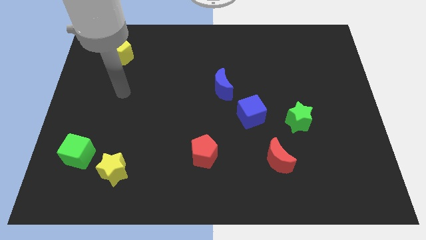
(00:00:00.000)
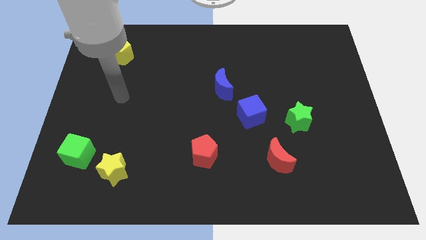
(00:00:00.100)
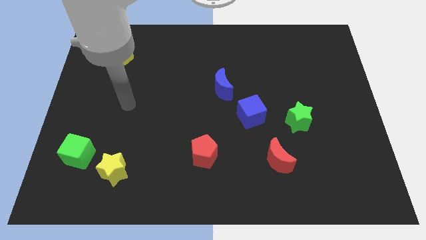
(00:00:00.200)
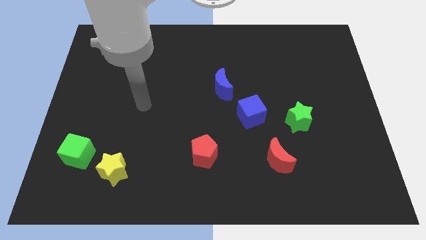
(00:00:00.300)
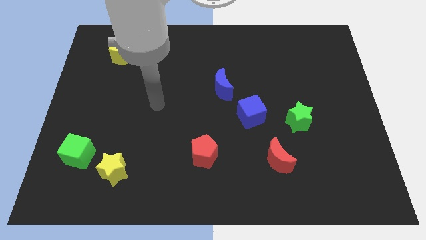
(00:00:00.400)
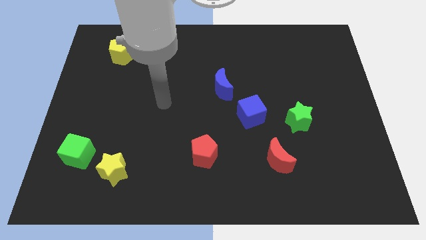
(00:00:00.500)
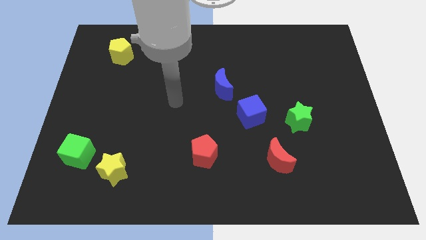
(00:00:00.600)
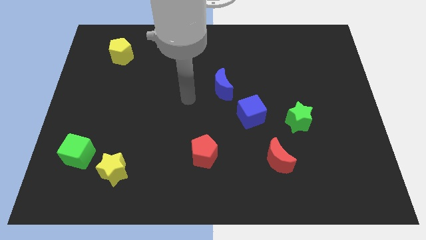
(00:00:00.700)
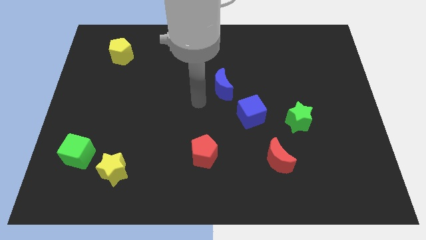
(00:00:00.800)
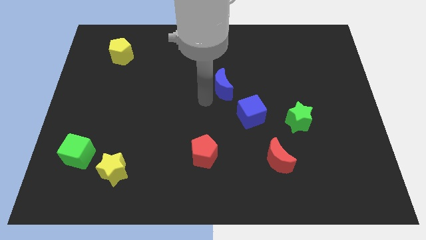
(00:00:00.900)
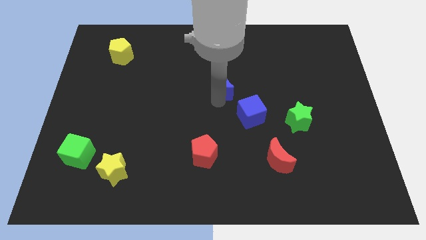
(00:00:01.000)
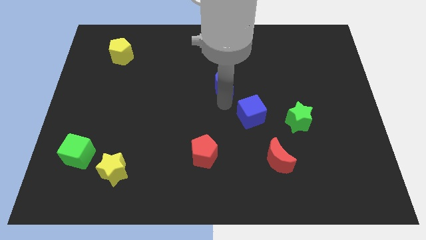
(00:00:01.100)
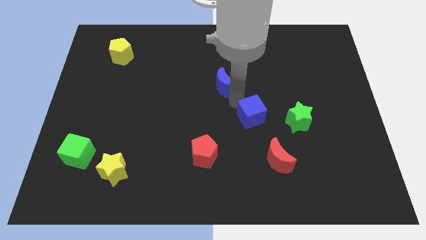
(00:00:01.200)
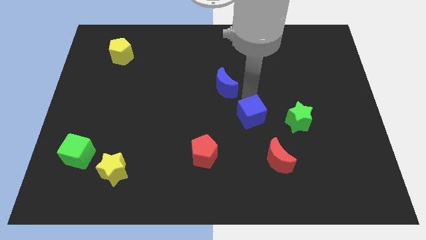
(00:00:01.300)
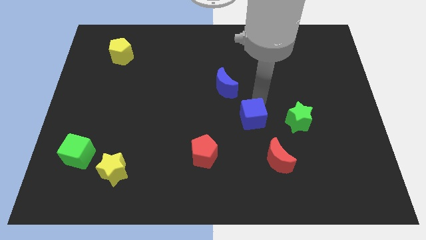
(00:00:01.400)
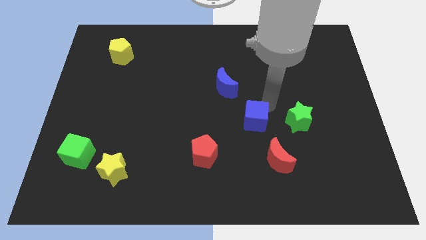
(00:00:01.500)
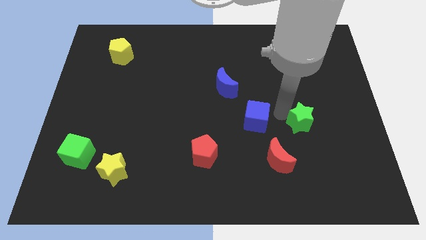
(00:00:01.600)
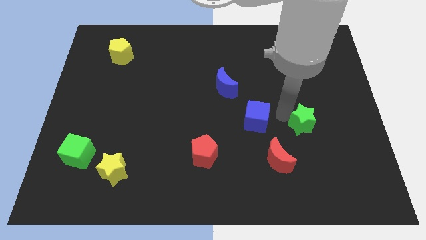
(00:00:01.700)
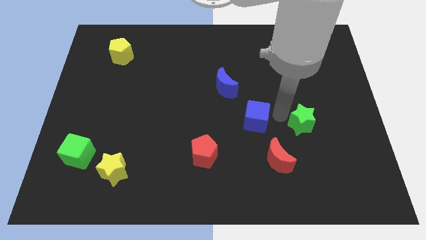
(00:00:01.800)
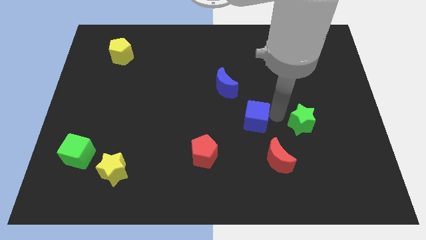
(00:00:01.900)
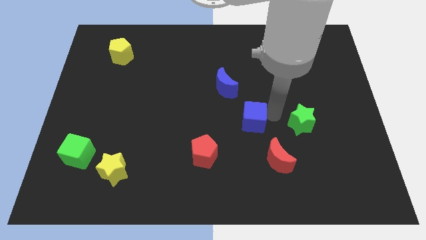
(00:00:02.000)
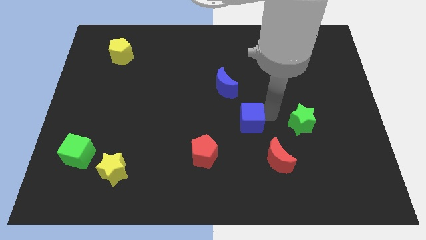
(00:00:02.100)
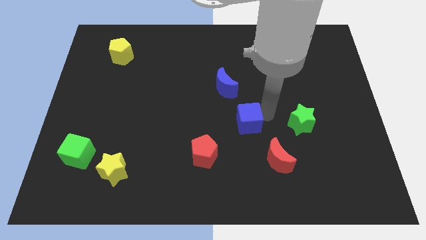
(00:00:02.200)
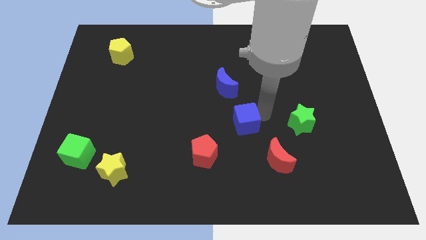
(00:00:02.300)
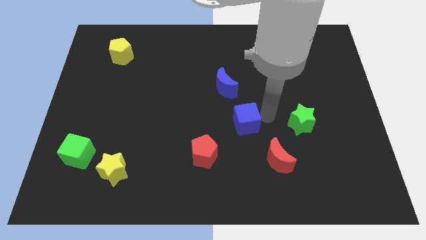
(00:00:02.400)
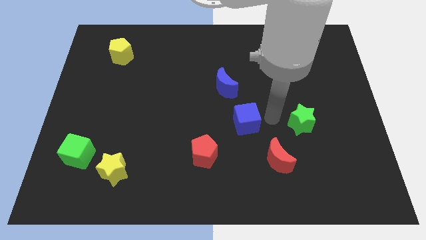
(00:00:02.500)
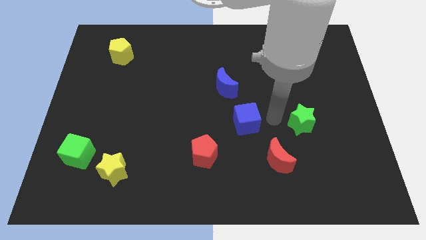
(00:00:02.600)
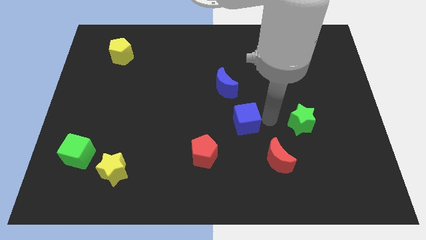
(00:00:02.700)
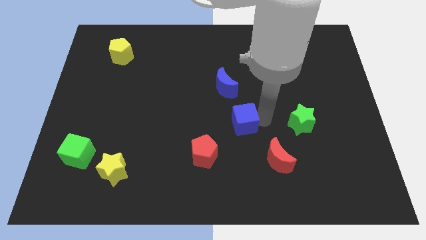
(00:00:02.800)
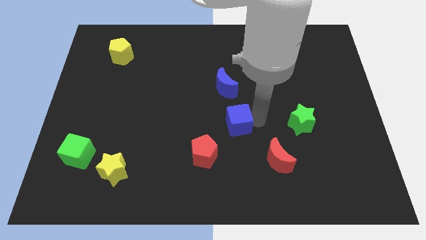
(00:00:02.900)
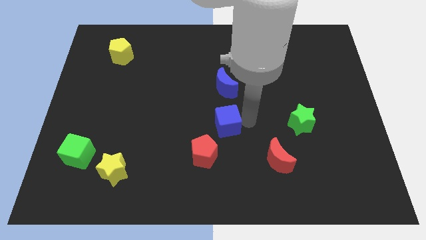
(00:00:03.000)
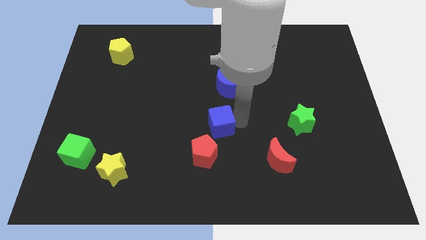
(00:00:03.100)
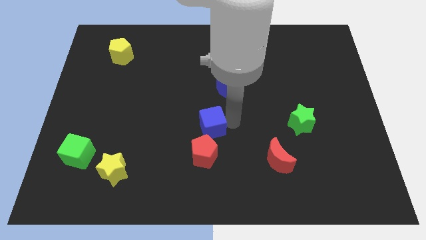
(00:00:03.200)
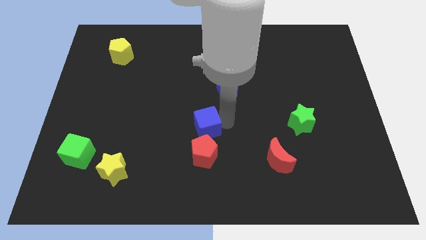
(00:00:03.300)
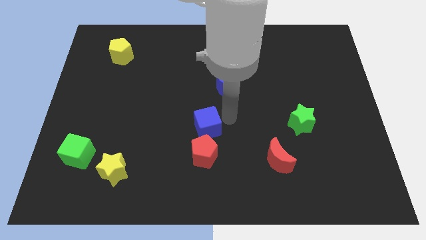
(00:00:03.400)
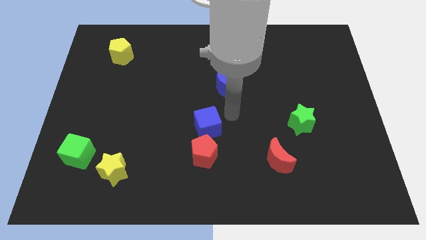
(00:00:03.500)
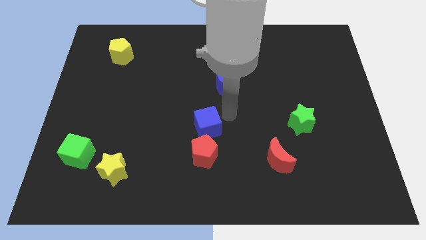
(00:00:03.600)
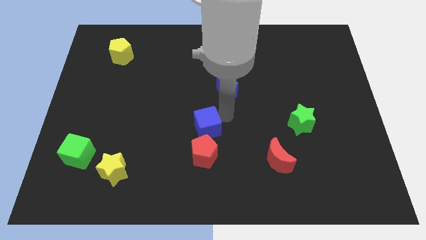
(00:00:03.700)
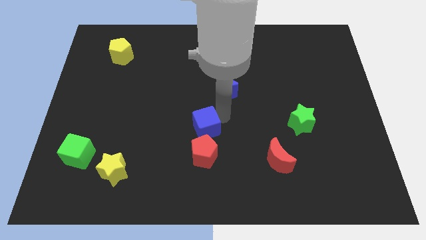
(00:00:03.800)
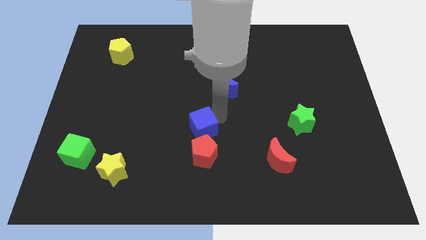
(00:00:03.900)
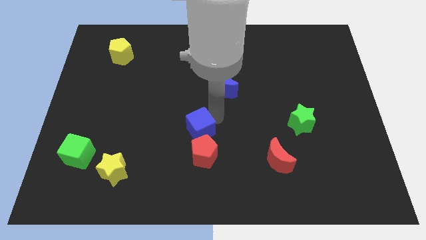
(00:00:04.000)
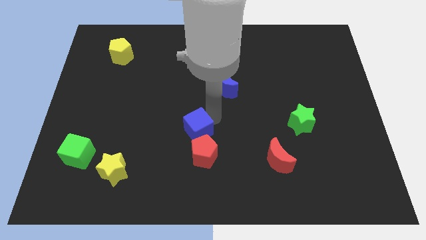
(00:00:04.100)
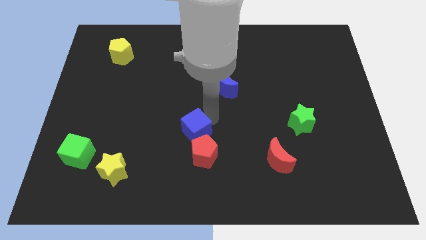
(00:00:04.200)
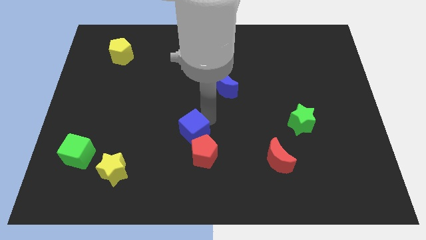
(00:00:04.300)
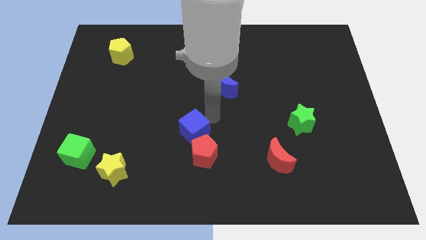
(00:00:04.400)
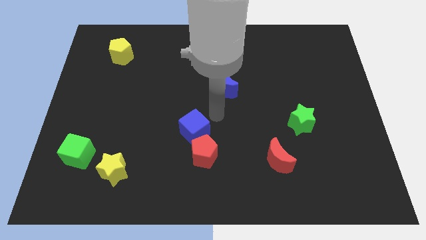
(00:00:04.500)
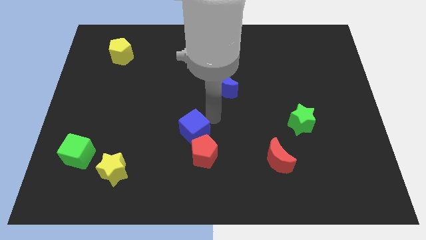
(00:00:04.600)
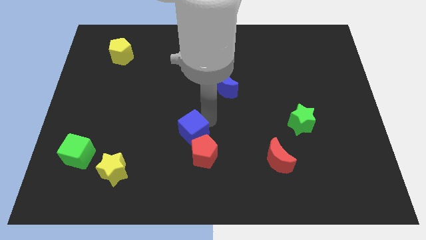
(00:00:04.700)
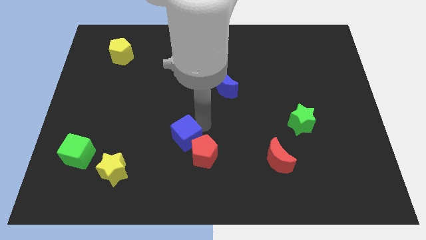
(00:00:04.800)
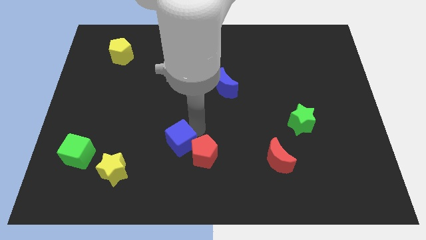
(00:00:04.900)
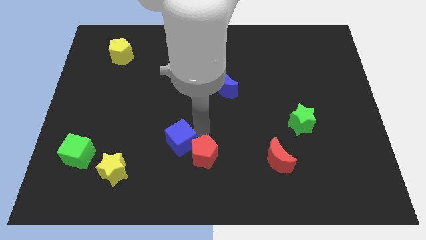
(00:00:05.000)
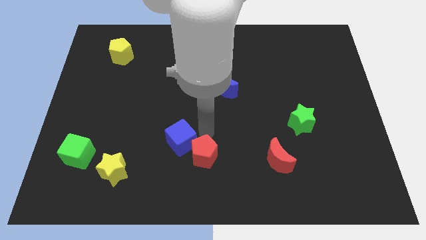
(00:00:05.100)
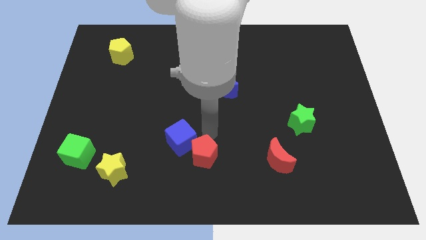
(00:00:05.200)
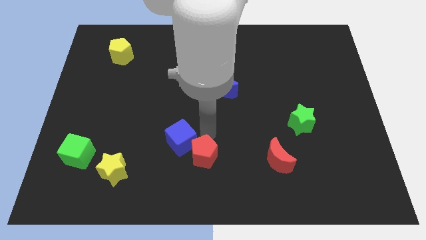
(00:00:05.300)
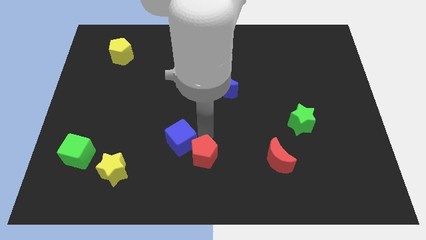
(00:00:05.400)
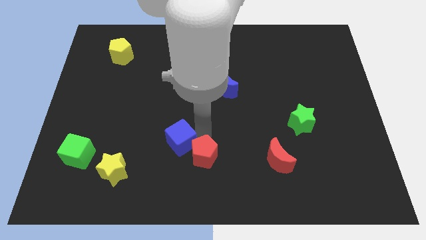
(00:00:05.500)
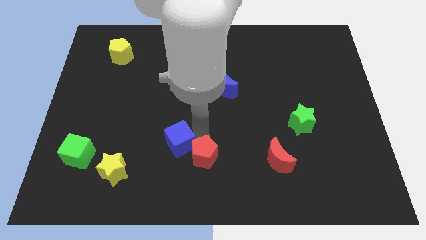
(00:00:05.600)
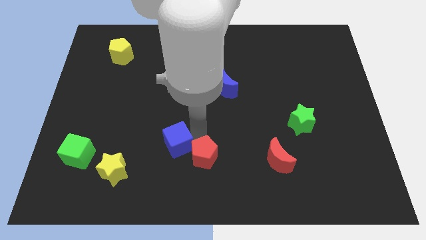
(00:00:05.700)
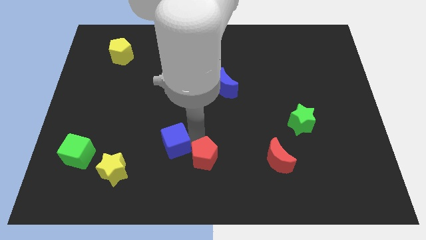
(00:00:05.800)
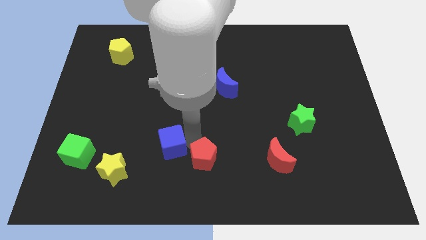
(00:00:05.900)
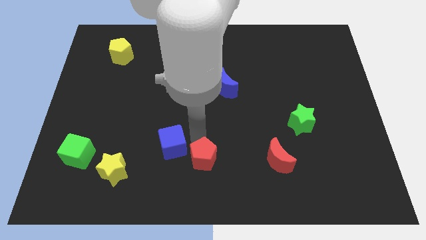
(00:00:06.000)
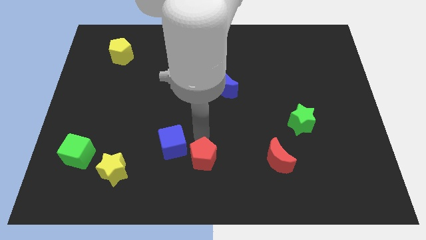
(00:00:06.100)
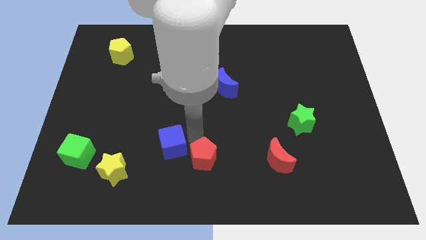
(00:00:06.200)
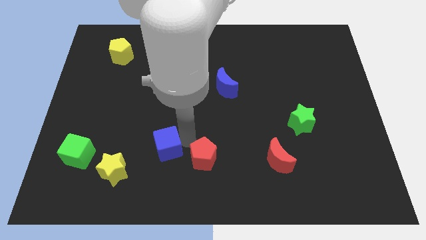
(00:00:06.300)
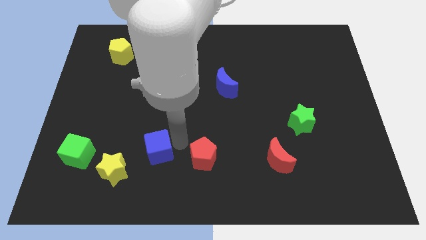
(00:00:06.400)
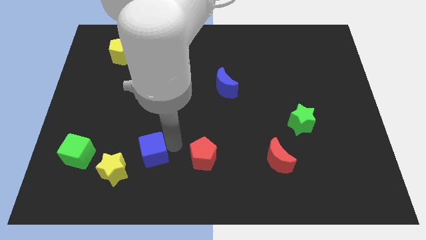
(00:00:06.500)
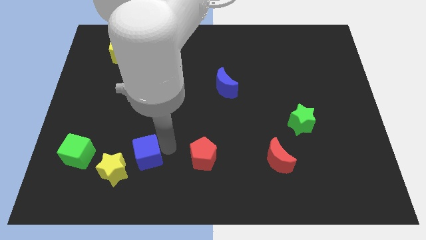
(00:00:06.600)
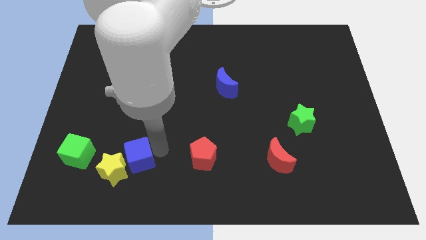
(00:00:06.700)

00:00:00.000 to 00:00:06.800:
move the blue cube to the yellow star
